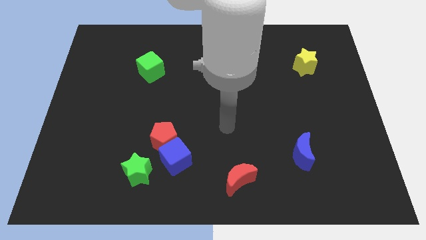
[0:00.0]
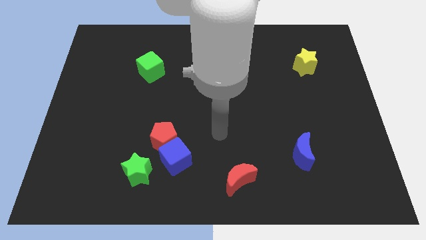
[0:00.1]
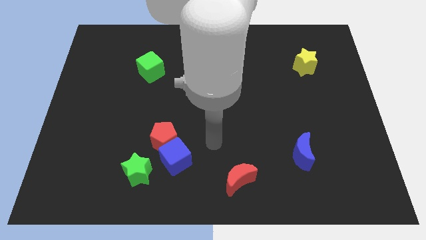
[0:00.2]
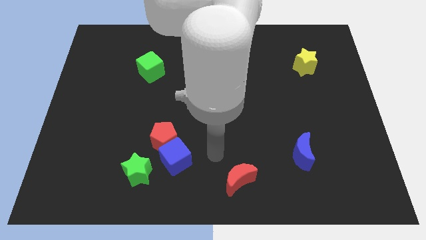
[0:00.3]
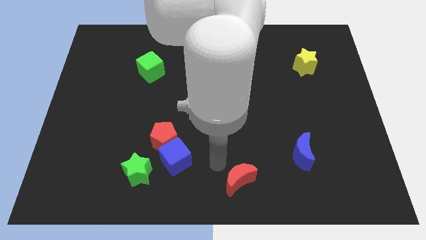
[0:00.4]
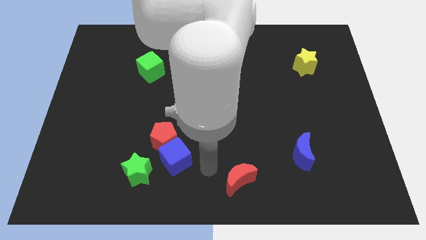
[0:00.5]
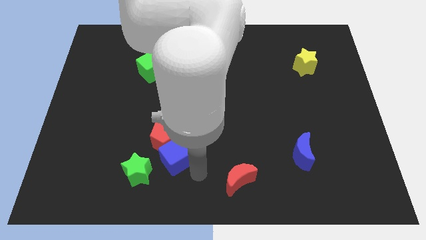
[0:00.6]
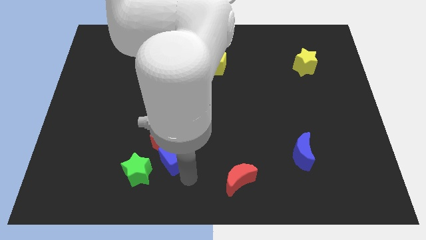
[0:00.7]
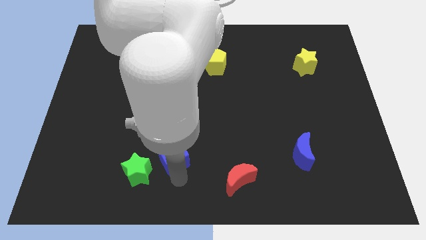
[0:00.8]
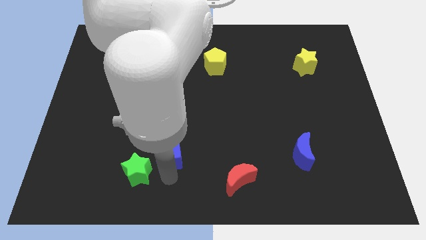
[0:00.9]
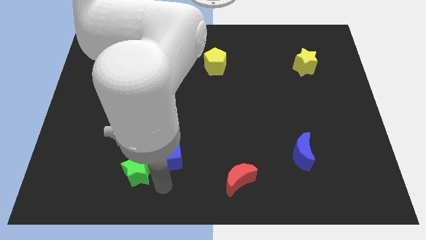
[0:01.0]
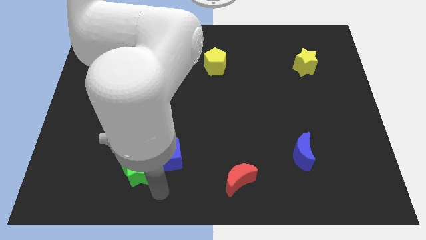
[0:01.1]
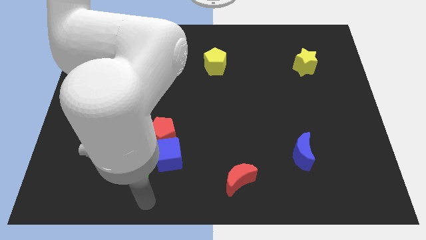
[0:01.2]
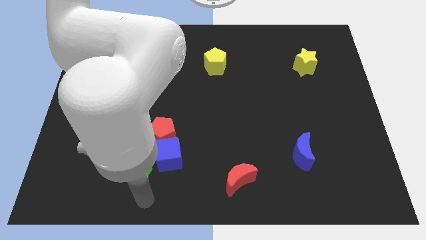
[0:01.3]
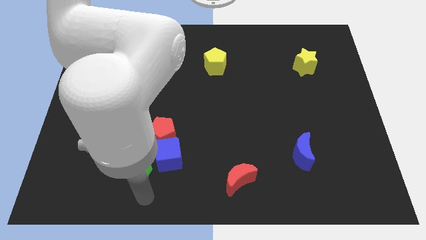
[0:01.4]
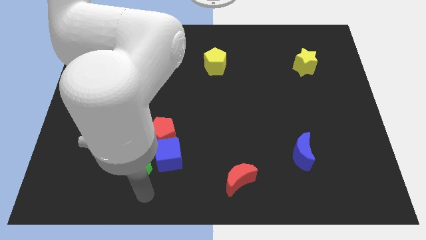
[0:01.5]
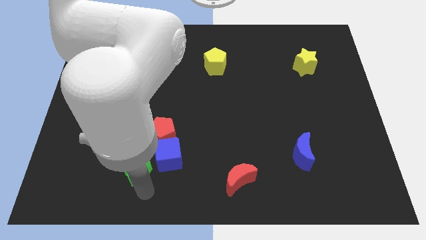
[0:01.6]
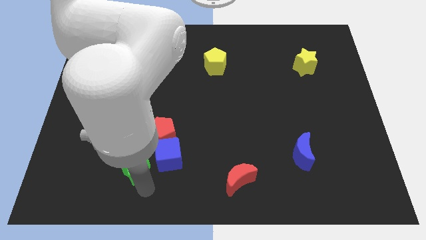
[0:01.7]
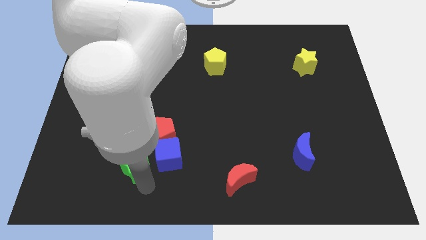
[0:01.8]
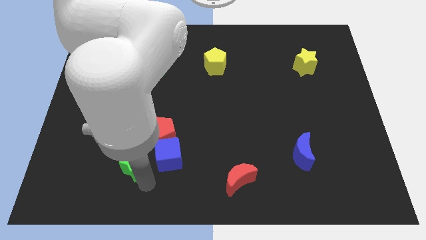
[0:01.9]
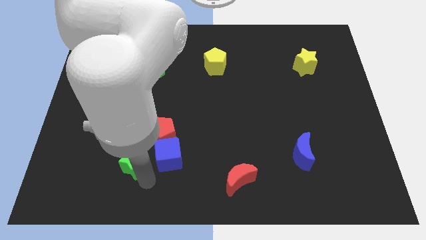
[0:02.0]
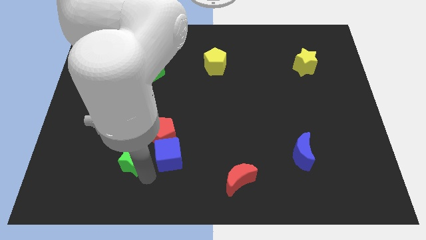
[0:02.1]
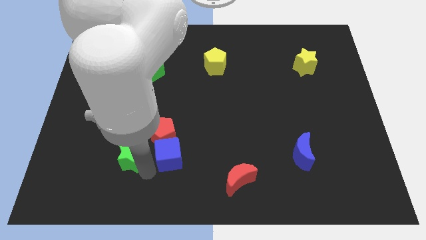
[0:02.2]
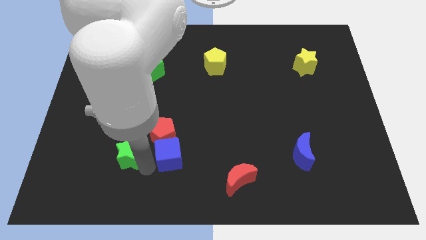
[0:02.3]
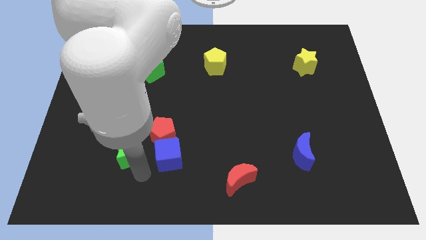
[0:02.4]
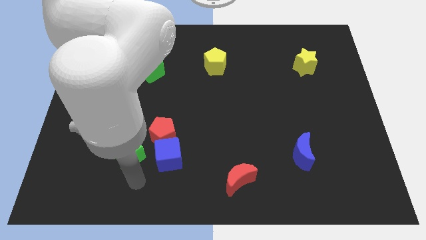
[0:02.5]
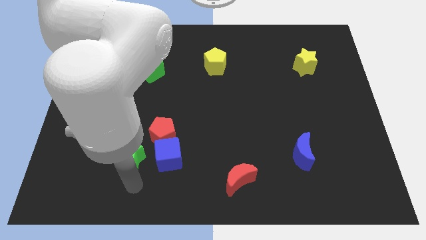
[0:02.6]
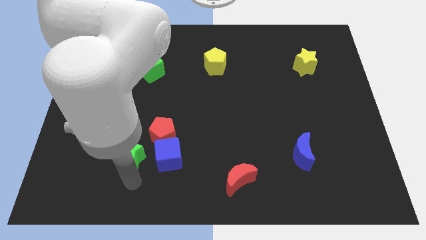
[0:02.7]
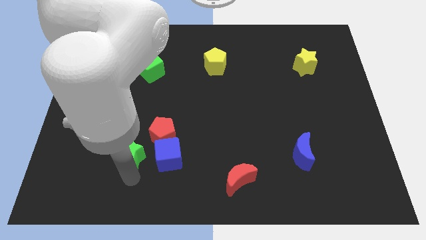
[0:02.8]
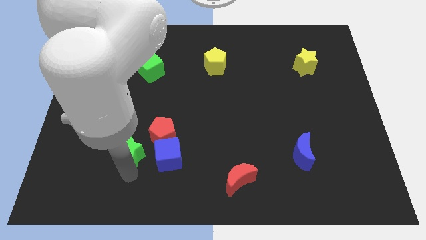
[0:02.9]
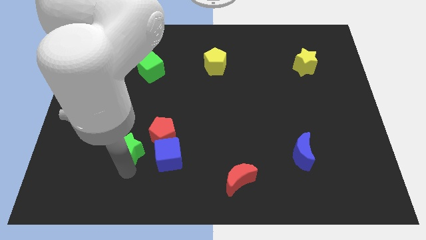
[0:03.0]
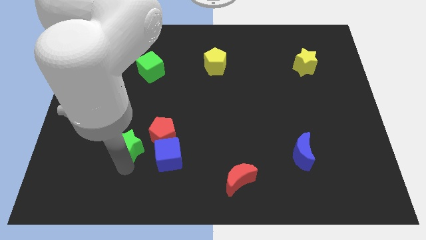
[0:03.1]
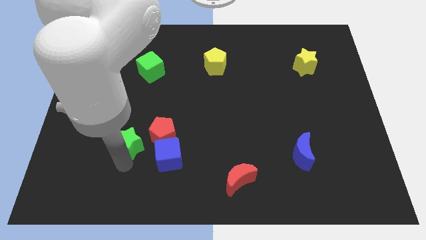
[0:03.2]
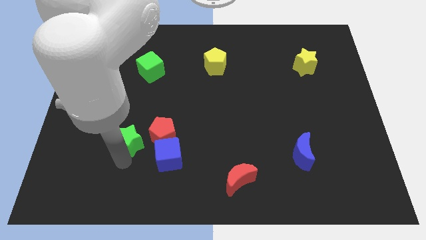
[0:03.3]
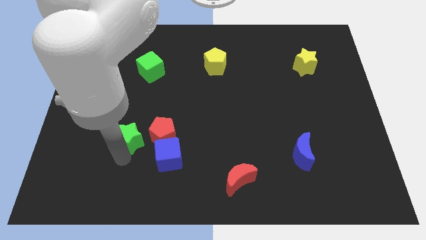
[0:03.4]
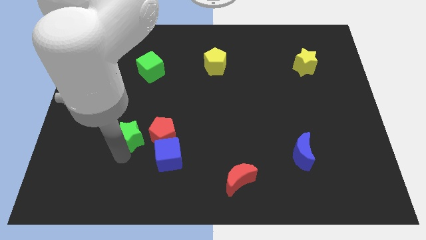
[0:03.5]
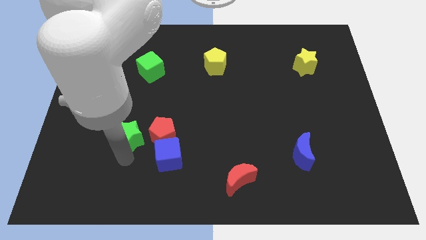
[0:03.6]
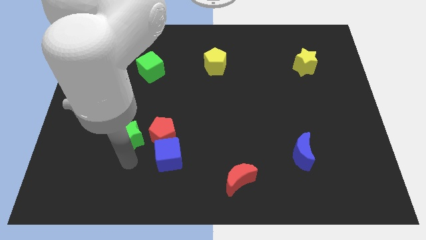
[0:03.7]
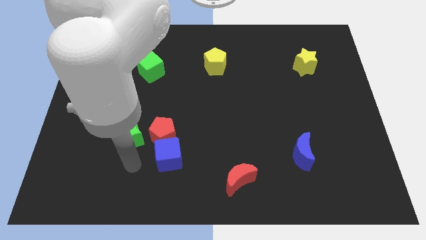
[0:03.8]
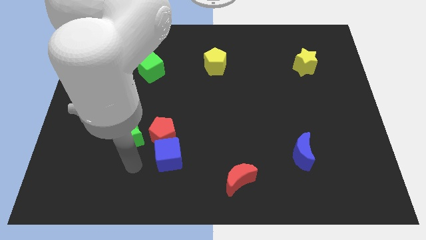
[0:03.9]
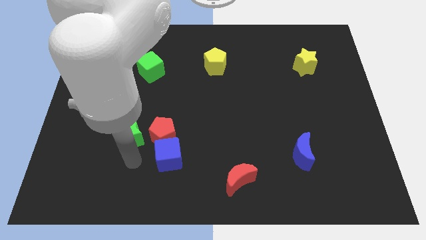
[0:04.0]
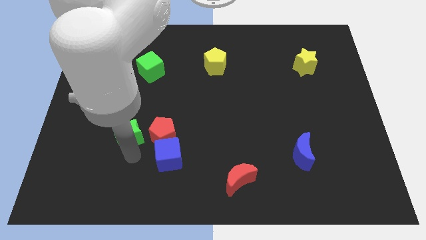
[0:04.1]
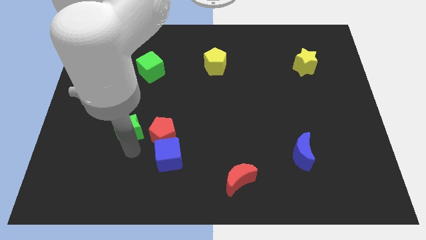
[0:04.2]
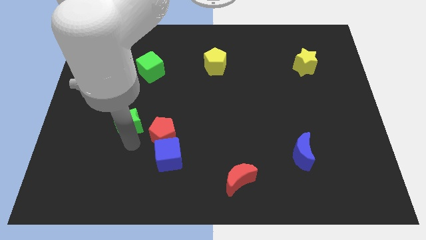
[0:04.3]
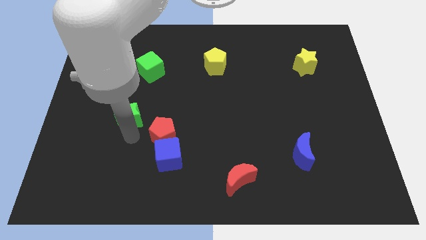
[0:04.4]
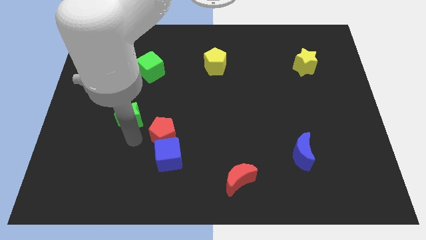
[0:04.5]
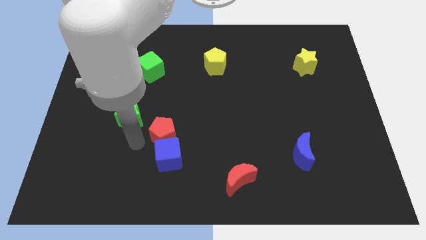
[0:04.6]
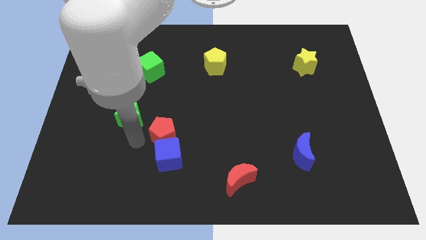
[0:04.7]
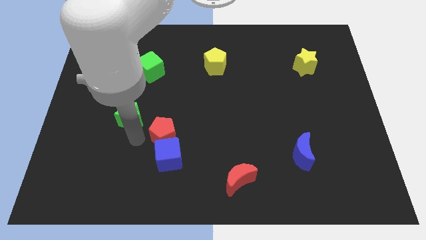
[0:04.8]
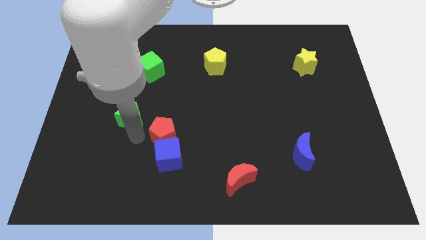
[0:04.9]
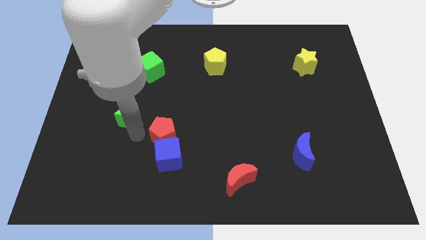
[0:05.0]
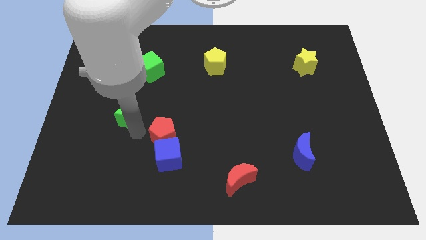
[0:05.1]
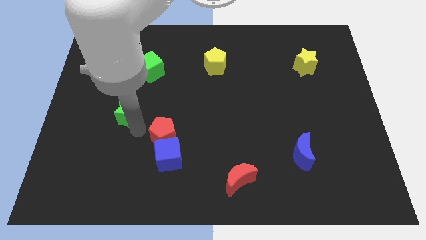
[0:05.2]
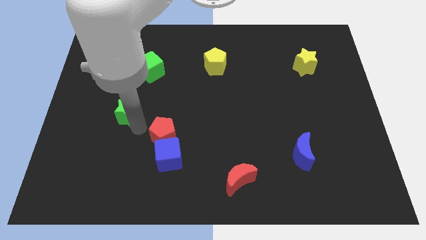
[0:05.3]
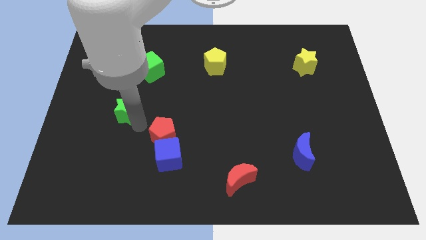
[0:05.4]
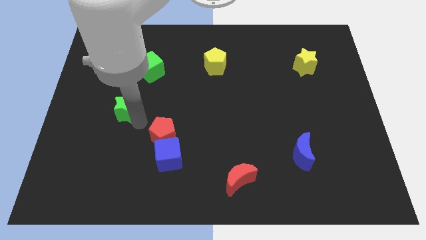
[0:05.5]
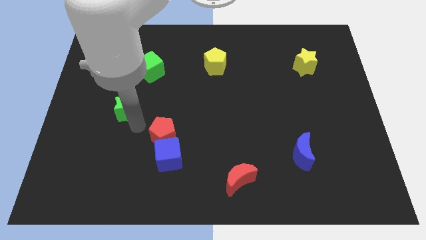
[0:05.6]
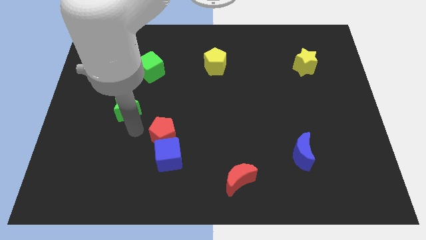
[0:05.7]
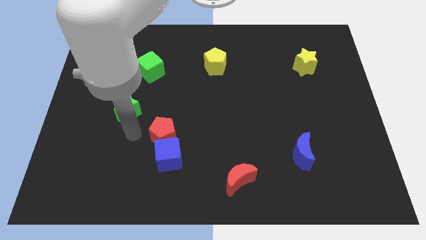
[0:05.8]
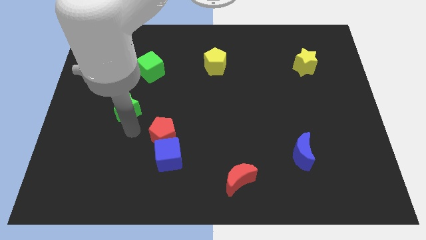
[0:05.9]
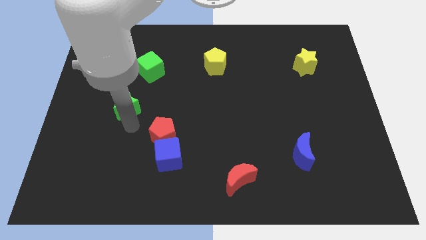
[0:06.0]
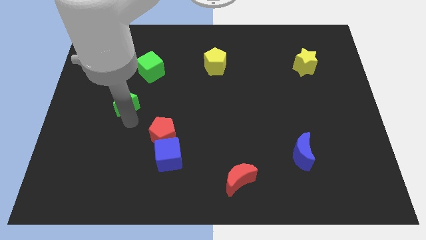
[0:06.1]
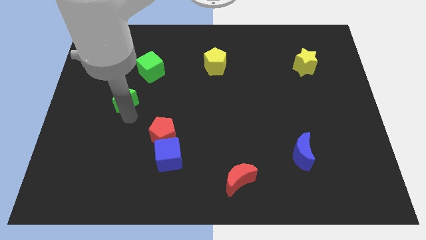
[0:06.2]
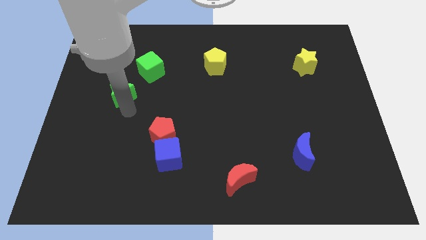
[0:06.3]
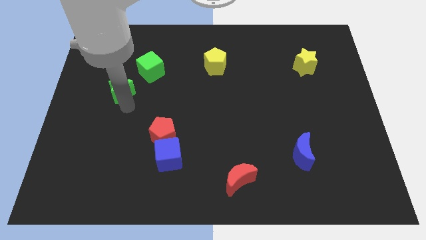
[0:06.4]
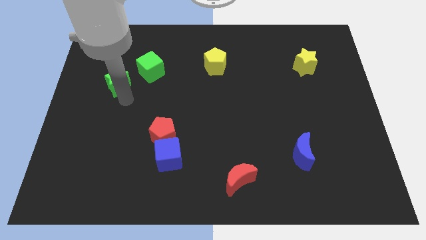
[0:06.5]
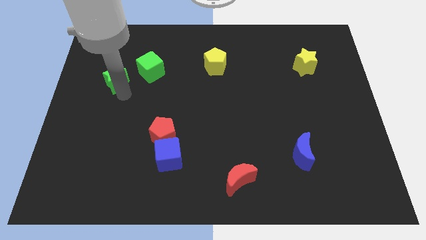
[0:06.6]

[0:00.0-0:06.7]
slide the green star to the left side of the green cube
